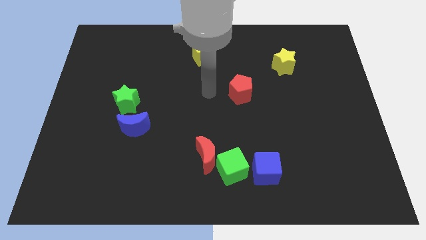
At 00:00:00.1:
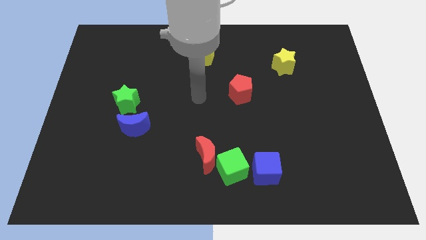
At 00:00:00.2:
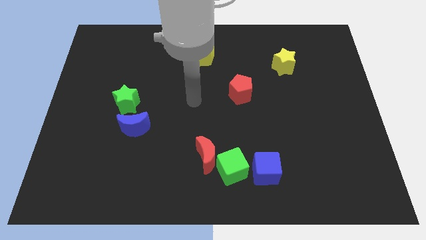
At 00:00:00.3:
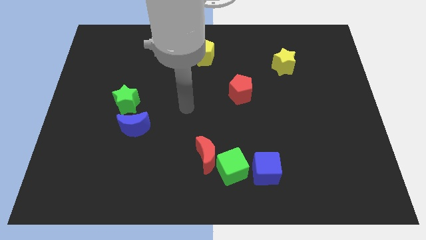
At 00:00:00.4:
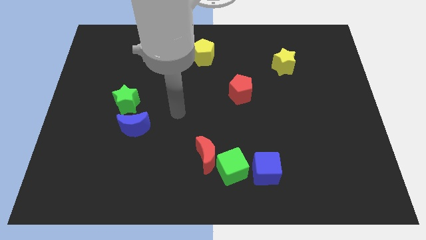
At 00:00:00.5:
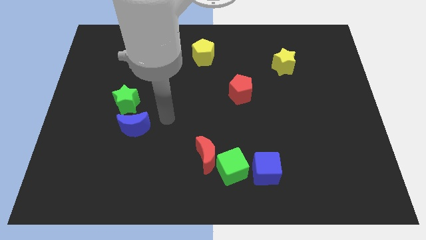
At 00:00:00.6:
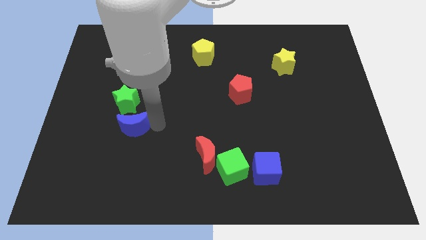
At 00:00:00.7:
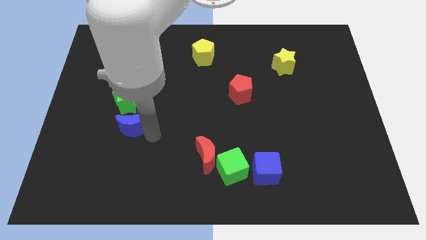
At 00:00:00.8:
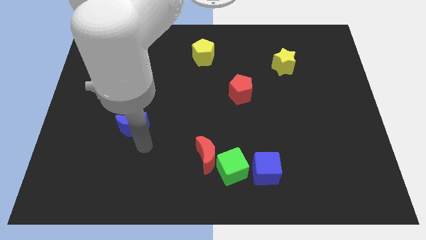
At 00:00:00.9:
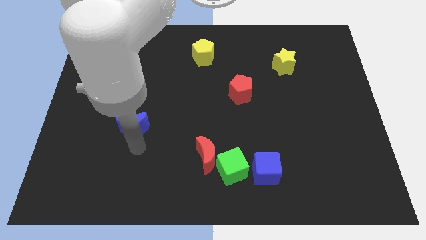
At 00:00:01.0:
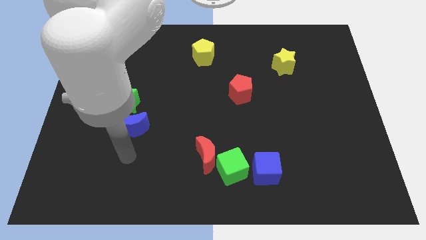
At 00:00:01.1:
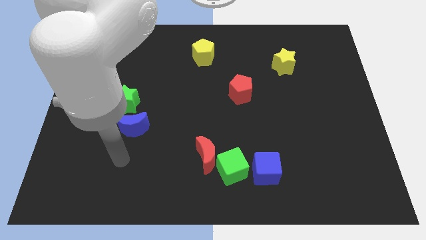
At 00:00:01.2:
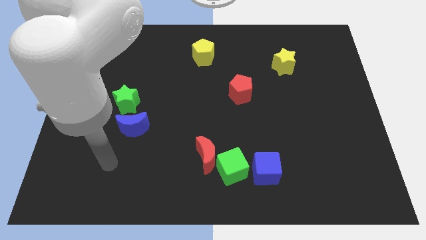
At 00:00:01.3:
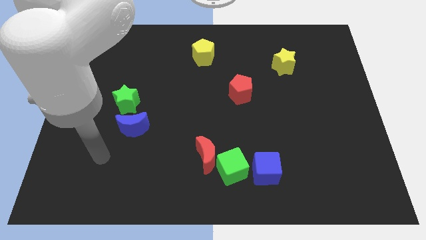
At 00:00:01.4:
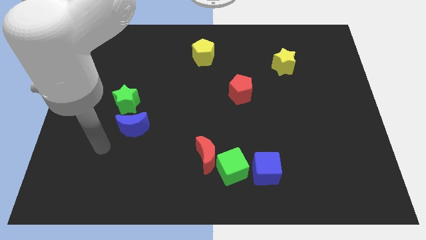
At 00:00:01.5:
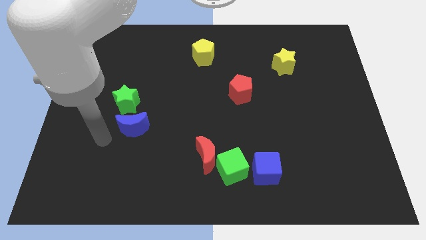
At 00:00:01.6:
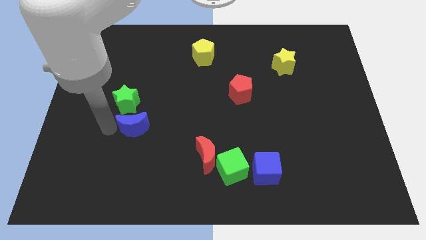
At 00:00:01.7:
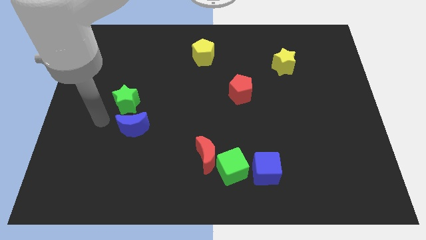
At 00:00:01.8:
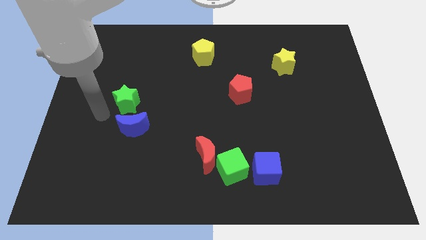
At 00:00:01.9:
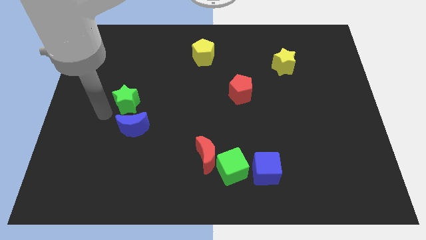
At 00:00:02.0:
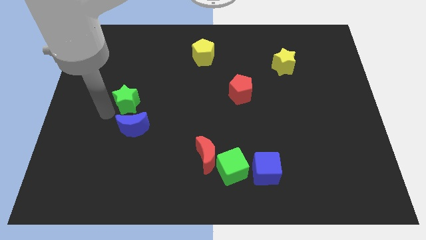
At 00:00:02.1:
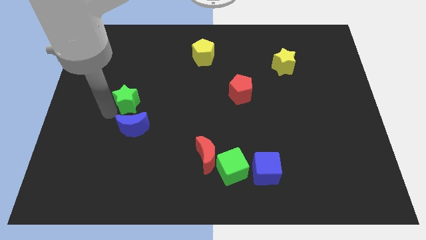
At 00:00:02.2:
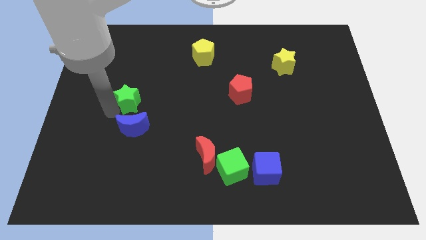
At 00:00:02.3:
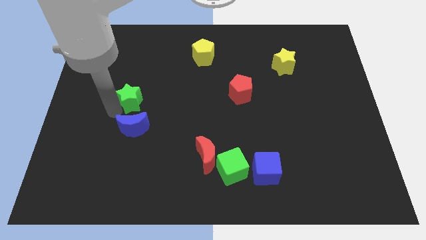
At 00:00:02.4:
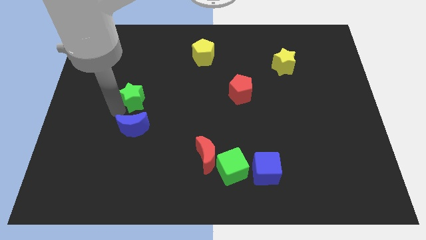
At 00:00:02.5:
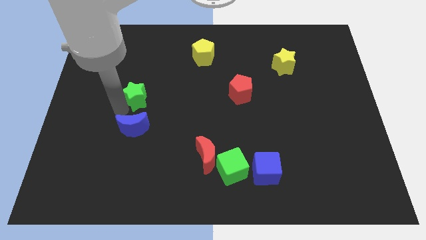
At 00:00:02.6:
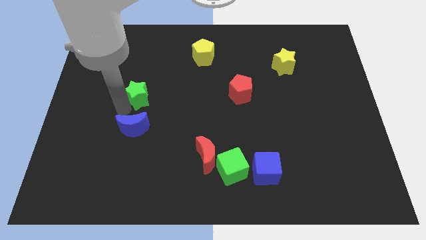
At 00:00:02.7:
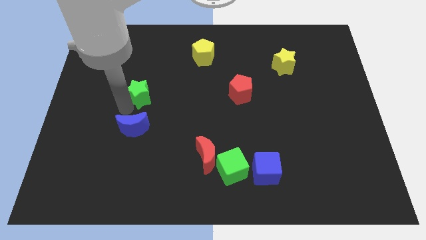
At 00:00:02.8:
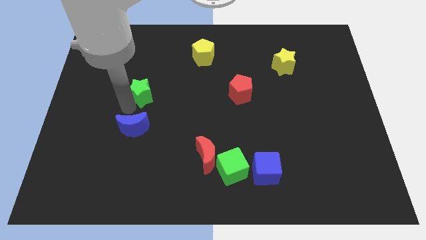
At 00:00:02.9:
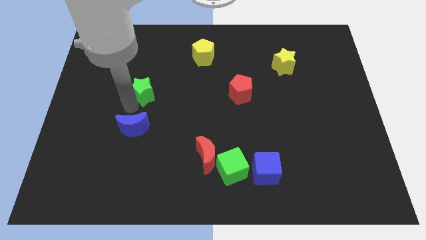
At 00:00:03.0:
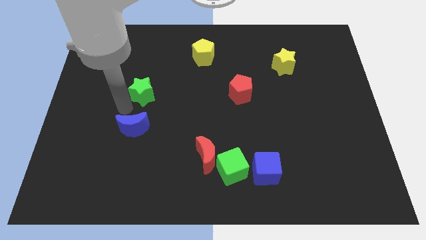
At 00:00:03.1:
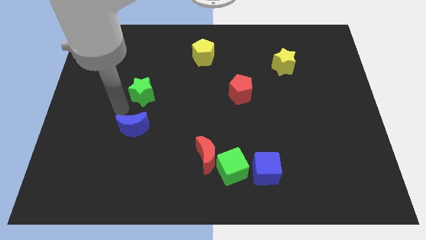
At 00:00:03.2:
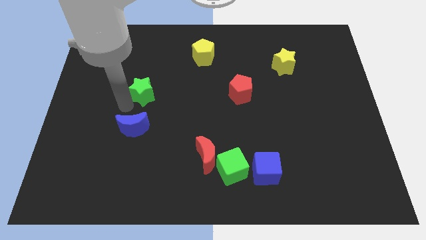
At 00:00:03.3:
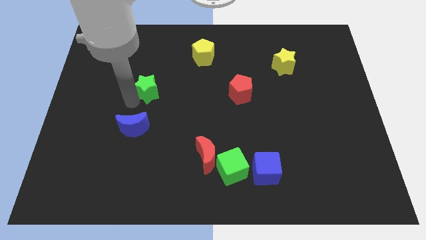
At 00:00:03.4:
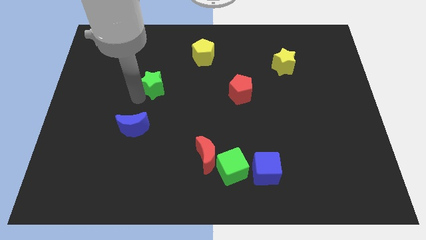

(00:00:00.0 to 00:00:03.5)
slightly move the green star upwards and right diagonally

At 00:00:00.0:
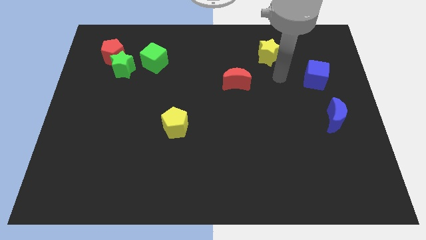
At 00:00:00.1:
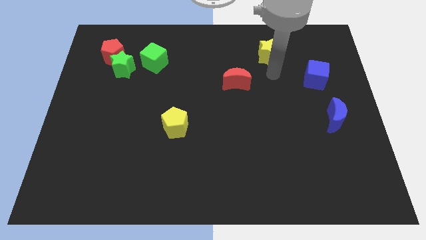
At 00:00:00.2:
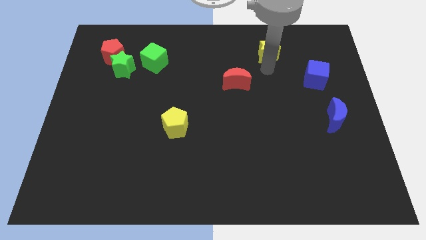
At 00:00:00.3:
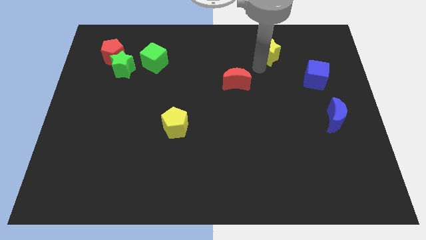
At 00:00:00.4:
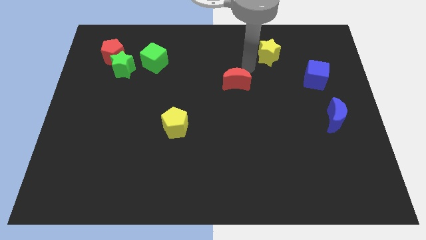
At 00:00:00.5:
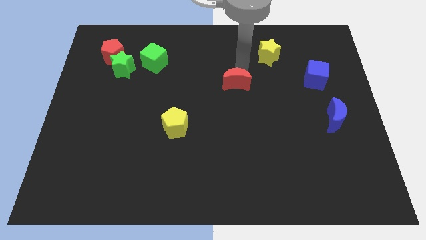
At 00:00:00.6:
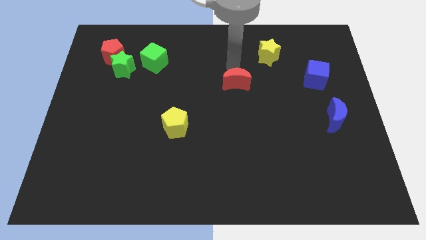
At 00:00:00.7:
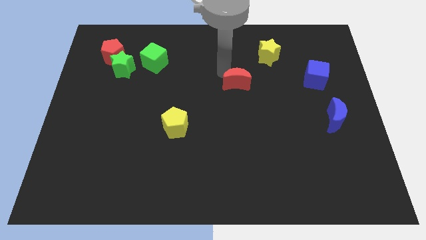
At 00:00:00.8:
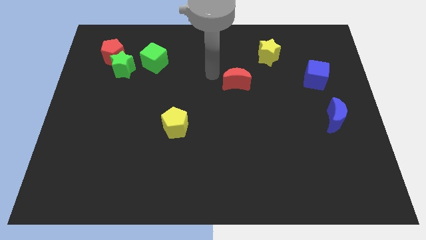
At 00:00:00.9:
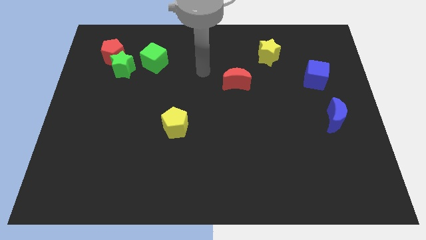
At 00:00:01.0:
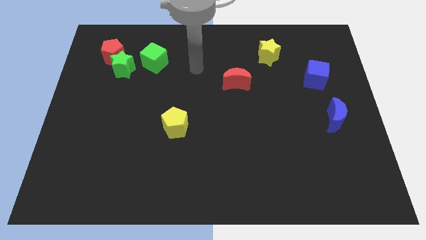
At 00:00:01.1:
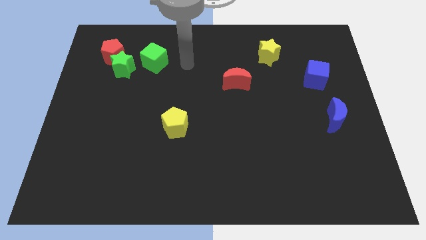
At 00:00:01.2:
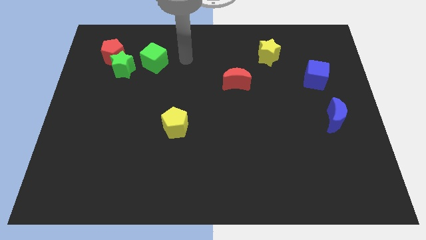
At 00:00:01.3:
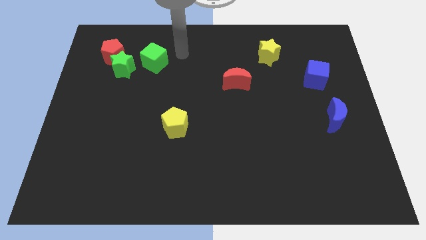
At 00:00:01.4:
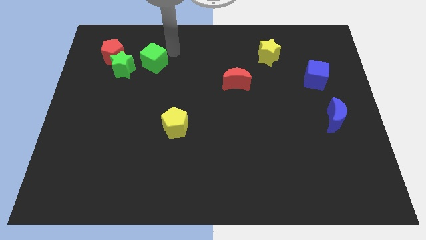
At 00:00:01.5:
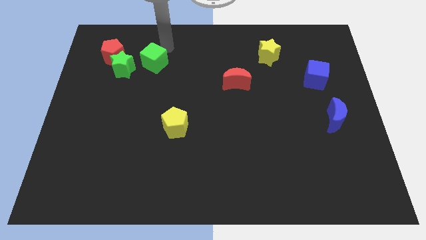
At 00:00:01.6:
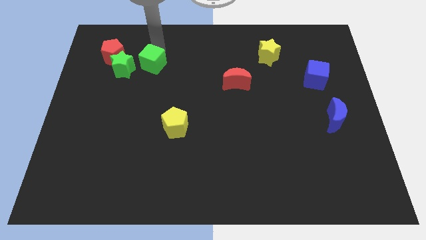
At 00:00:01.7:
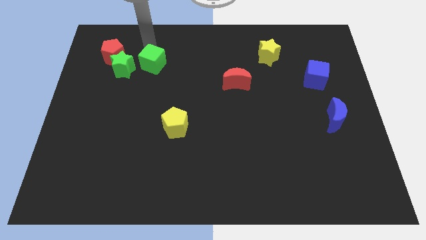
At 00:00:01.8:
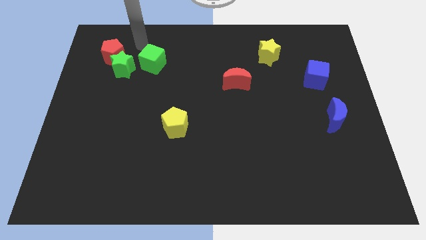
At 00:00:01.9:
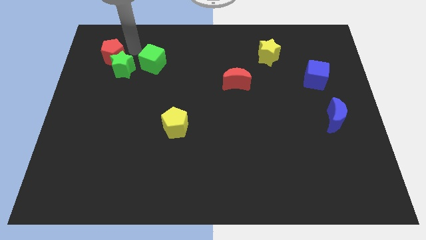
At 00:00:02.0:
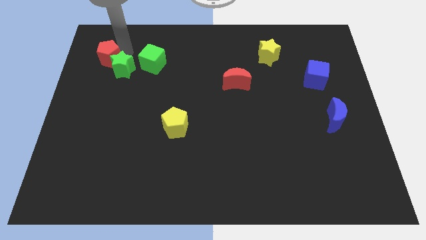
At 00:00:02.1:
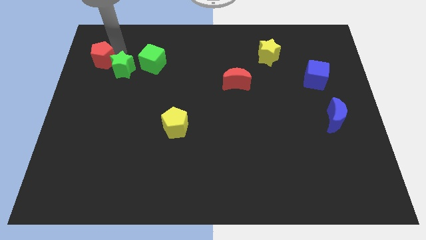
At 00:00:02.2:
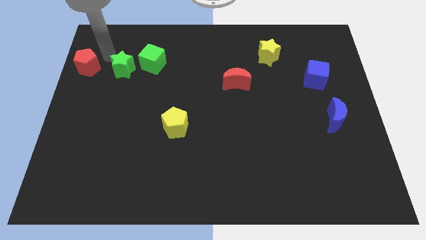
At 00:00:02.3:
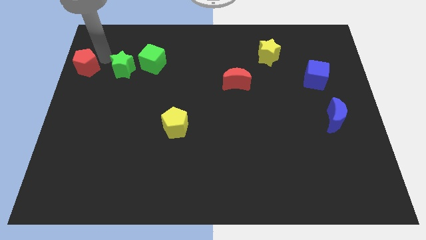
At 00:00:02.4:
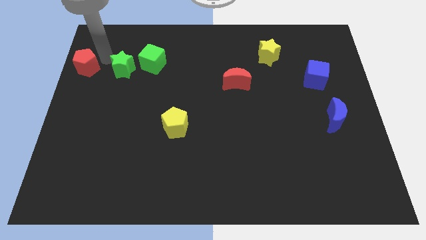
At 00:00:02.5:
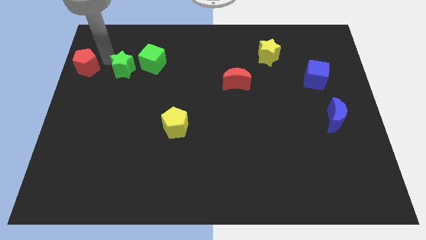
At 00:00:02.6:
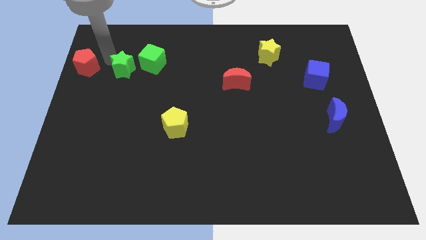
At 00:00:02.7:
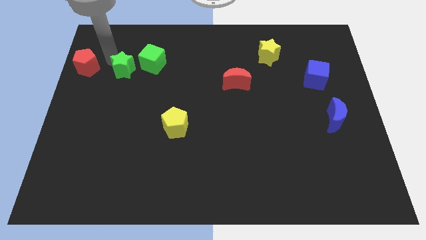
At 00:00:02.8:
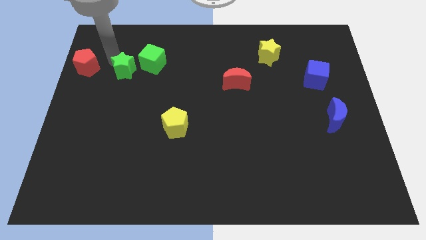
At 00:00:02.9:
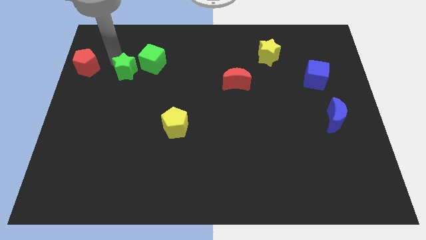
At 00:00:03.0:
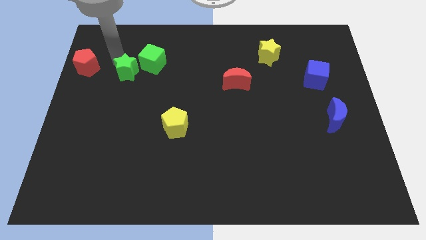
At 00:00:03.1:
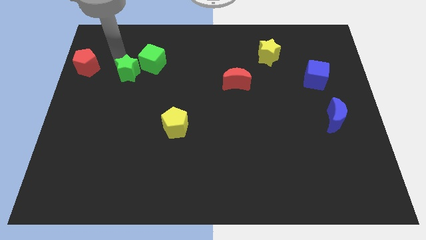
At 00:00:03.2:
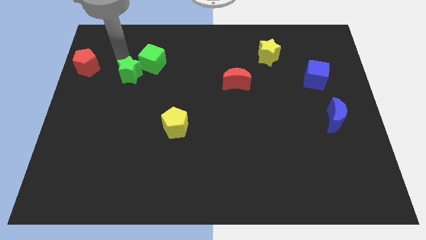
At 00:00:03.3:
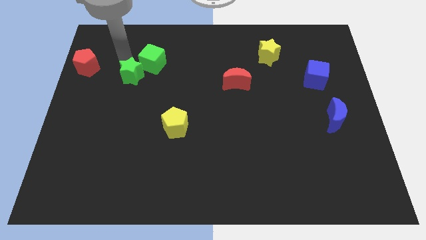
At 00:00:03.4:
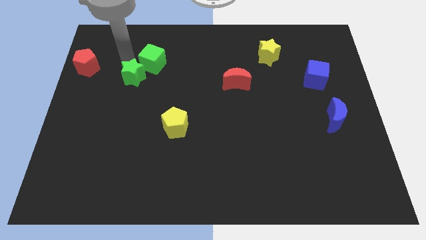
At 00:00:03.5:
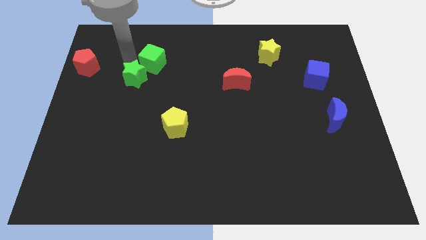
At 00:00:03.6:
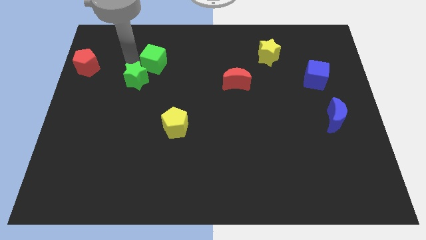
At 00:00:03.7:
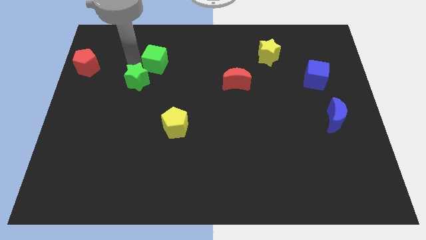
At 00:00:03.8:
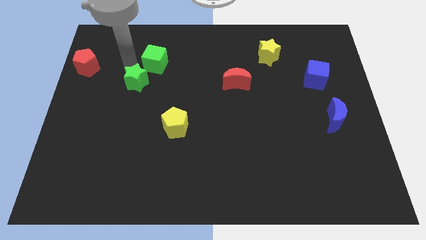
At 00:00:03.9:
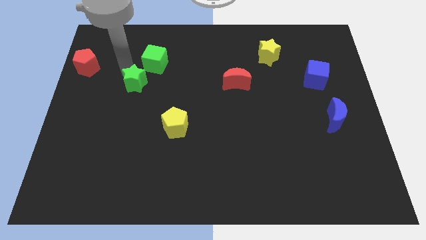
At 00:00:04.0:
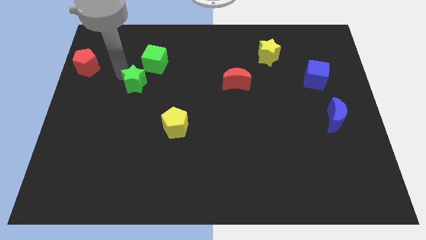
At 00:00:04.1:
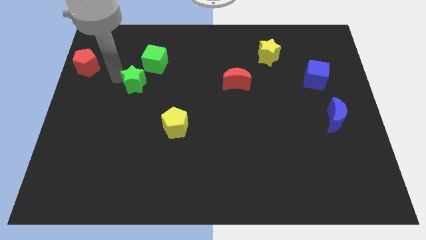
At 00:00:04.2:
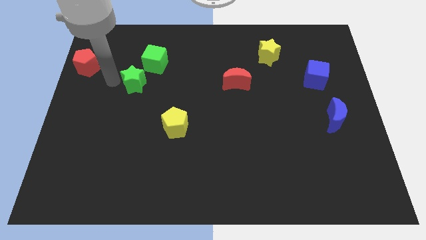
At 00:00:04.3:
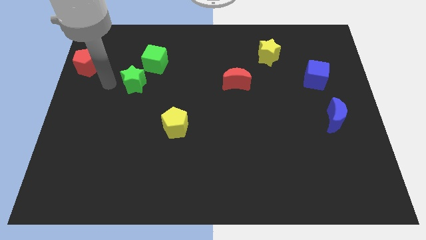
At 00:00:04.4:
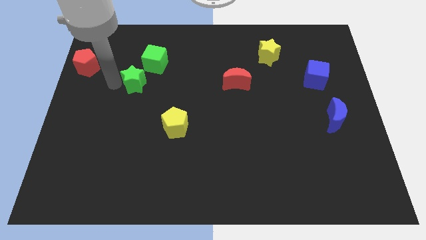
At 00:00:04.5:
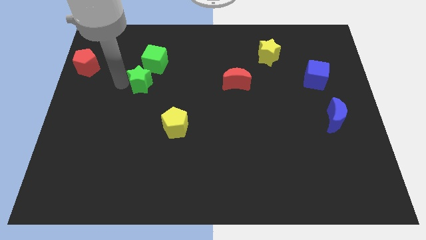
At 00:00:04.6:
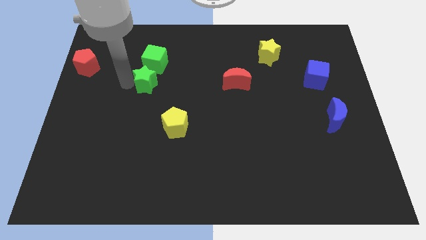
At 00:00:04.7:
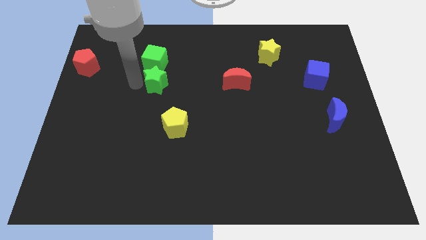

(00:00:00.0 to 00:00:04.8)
move the green star to the right slightly
